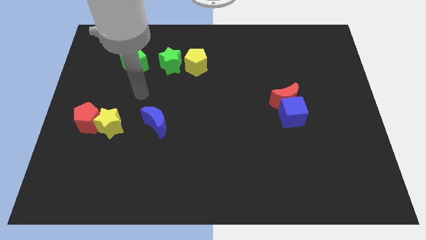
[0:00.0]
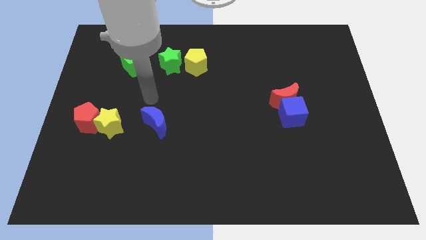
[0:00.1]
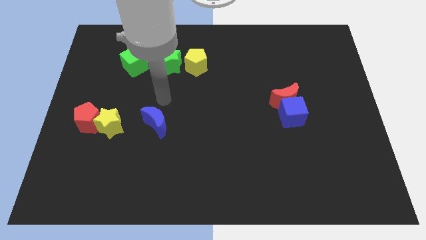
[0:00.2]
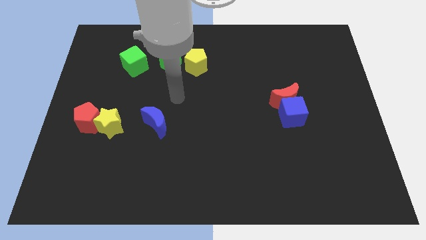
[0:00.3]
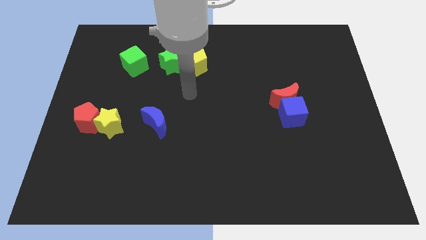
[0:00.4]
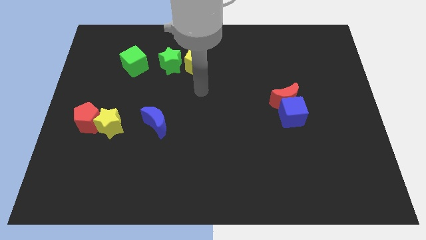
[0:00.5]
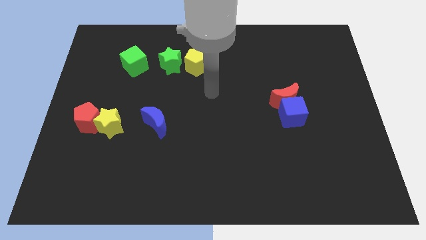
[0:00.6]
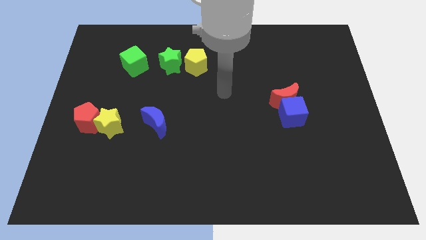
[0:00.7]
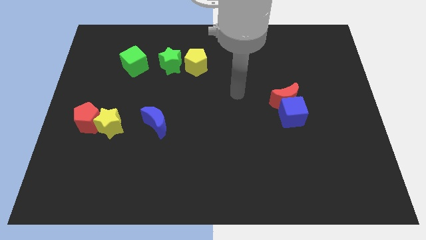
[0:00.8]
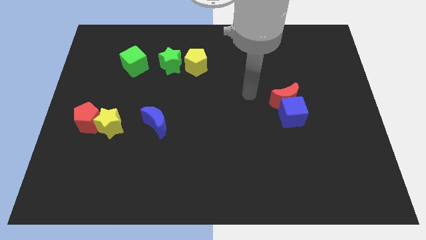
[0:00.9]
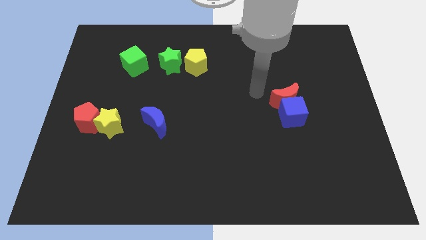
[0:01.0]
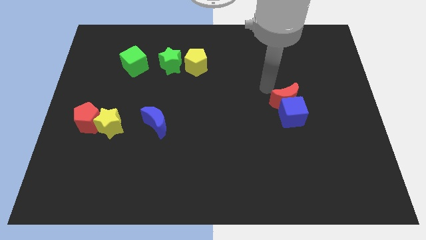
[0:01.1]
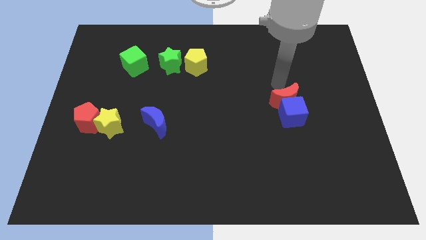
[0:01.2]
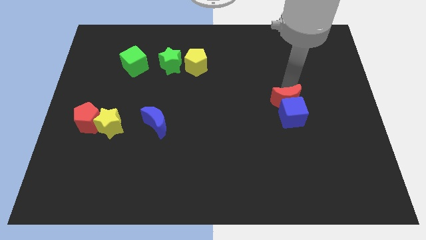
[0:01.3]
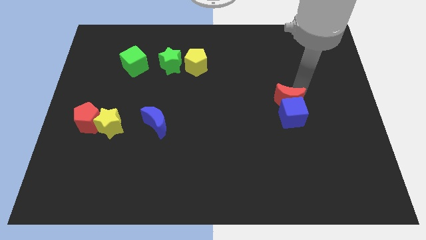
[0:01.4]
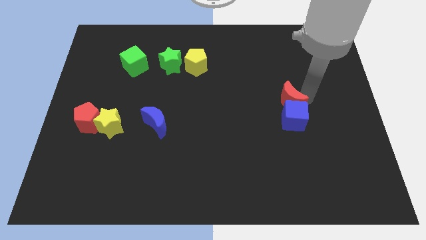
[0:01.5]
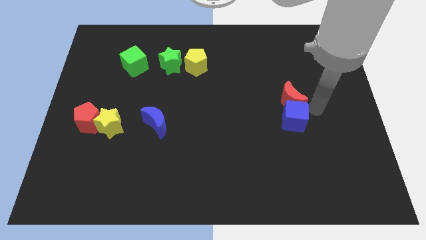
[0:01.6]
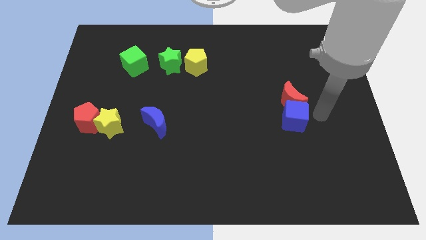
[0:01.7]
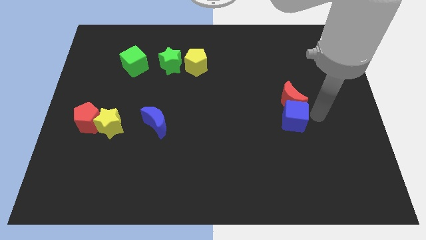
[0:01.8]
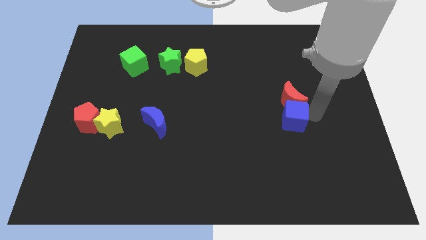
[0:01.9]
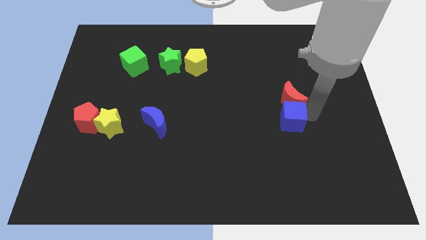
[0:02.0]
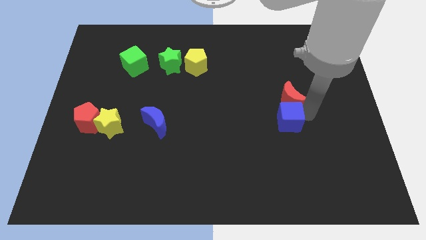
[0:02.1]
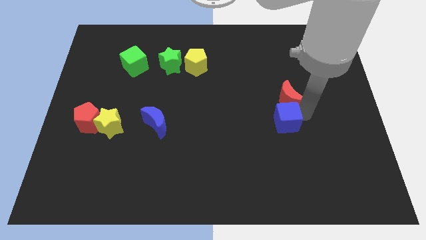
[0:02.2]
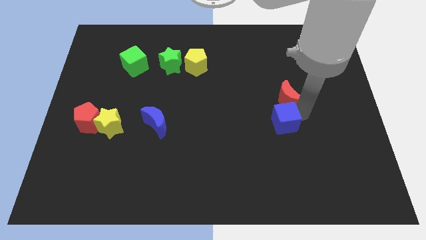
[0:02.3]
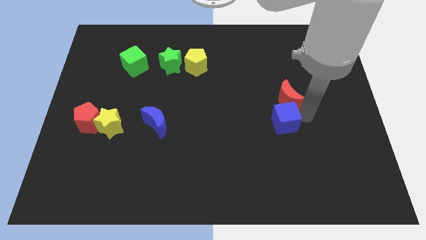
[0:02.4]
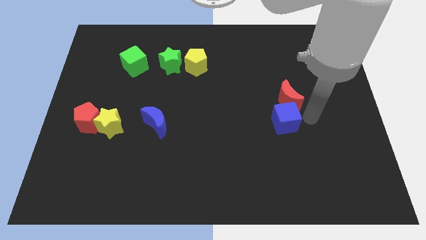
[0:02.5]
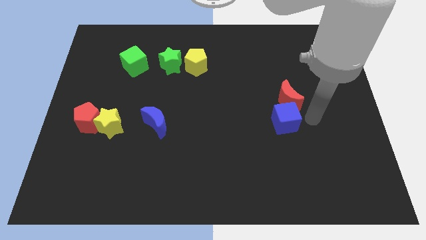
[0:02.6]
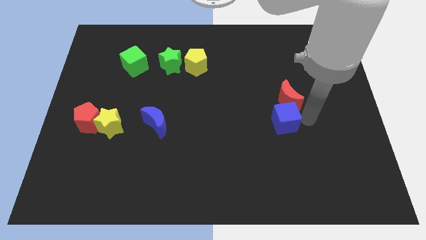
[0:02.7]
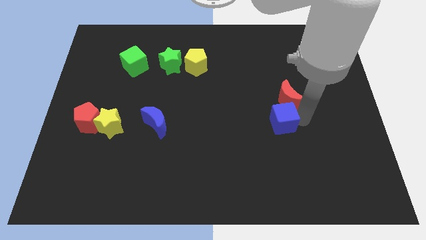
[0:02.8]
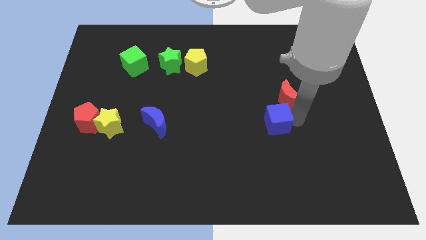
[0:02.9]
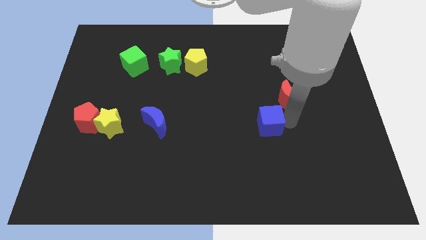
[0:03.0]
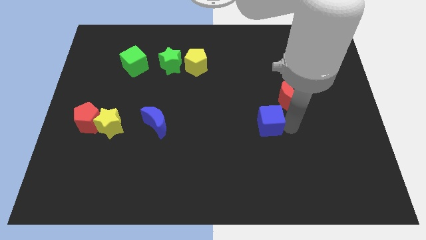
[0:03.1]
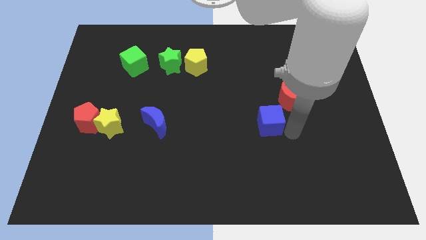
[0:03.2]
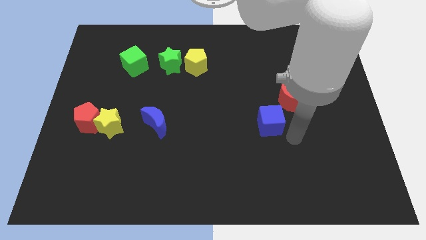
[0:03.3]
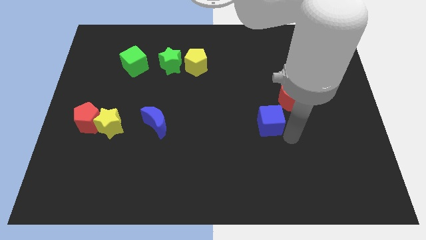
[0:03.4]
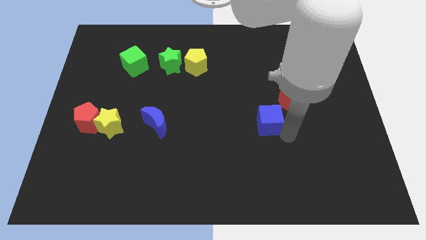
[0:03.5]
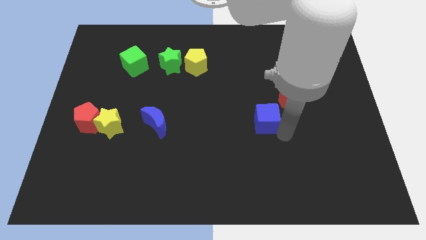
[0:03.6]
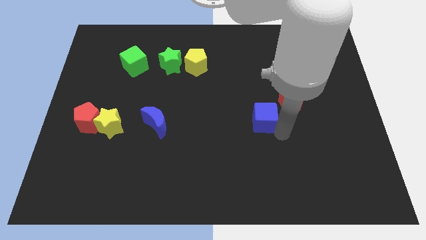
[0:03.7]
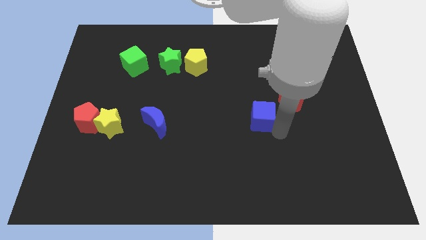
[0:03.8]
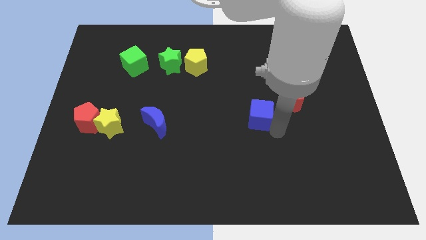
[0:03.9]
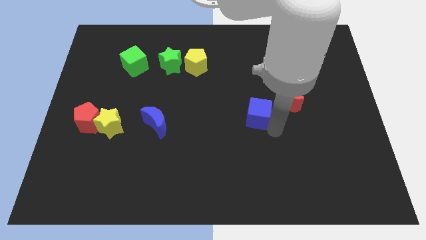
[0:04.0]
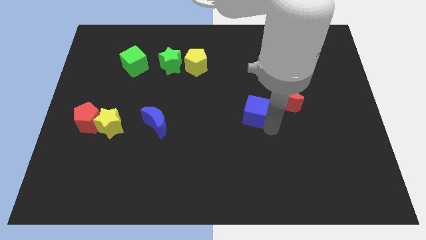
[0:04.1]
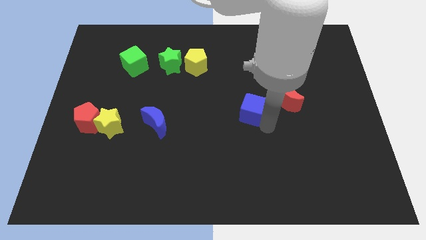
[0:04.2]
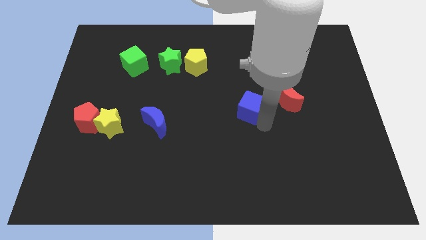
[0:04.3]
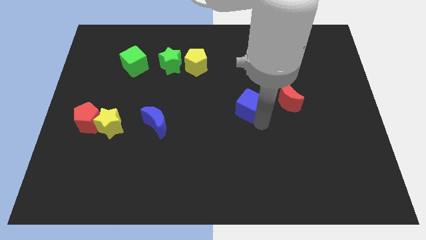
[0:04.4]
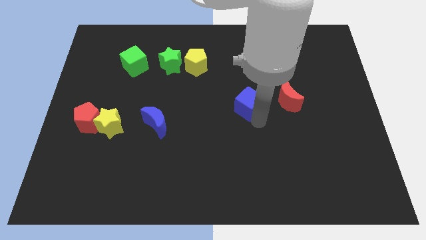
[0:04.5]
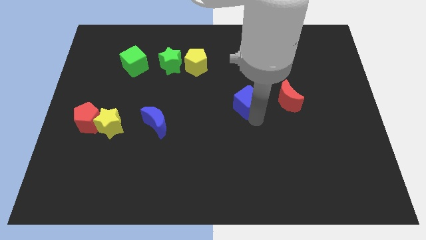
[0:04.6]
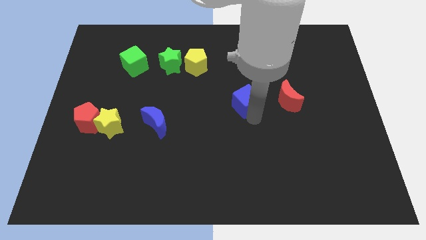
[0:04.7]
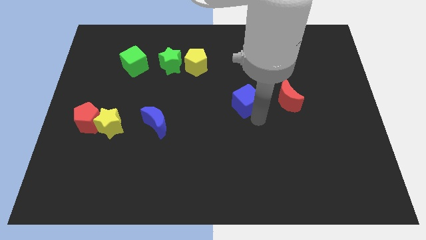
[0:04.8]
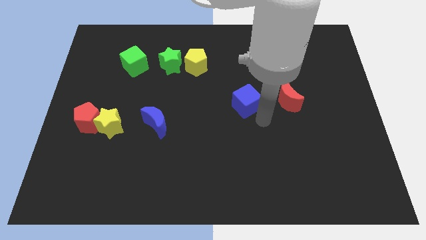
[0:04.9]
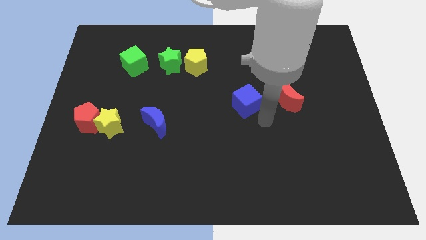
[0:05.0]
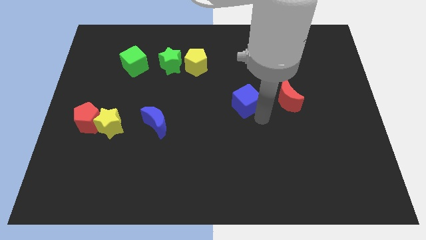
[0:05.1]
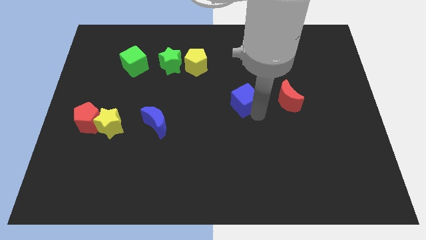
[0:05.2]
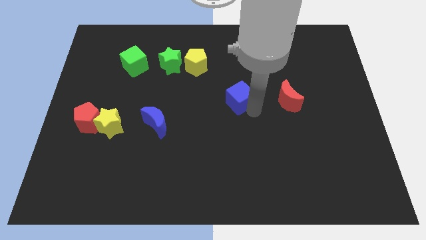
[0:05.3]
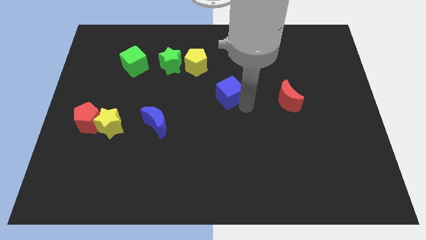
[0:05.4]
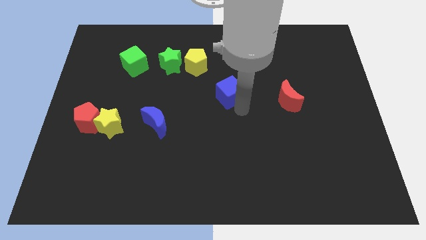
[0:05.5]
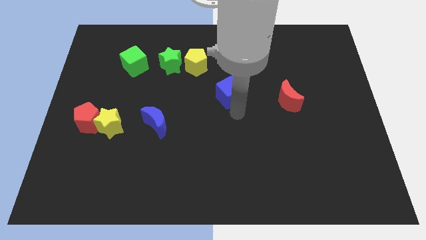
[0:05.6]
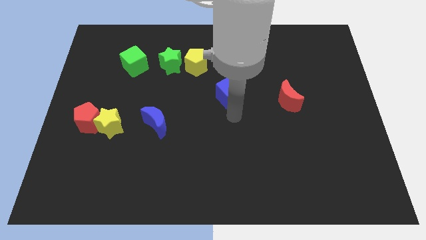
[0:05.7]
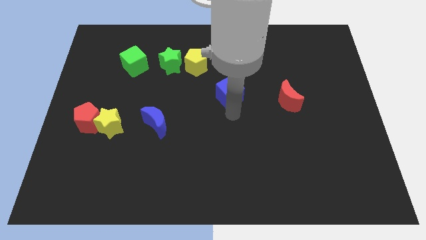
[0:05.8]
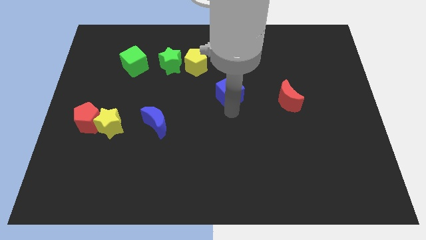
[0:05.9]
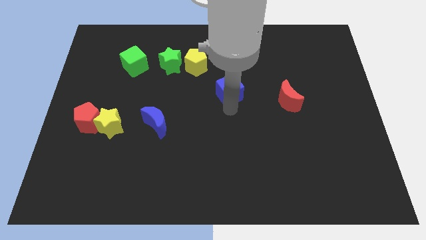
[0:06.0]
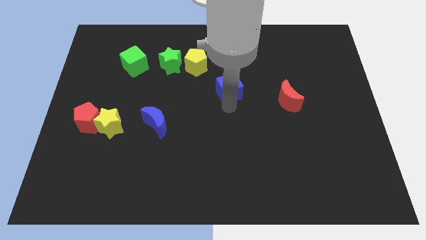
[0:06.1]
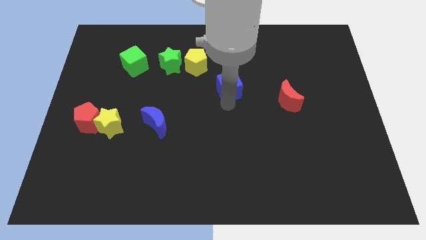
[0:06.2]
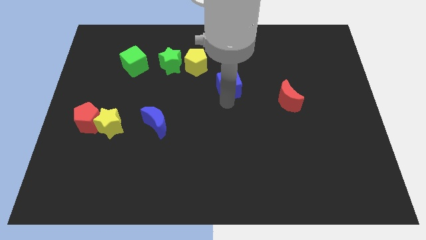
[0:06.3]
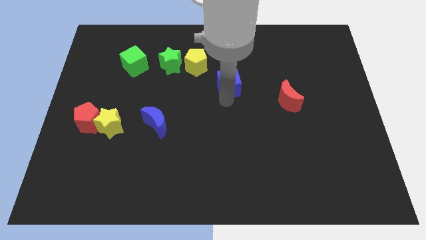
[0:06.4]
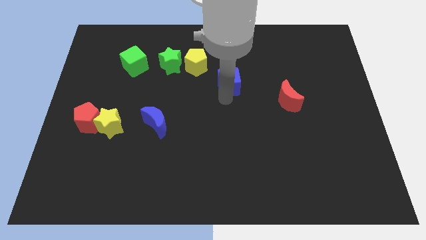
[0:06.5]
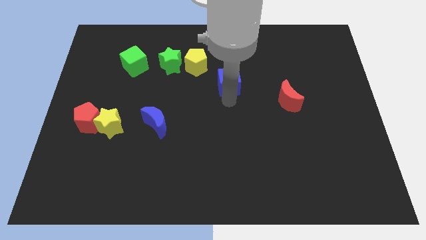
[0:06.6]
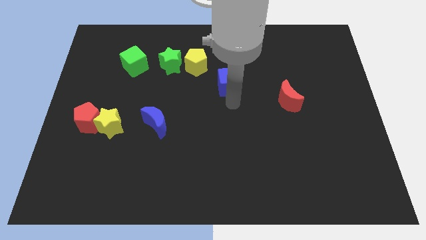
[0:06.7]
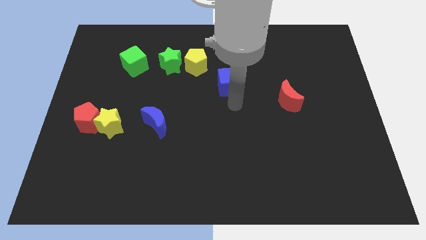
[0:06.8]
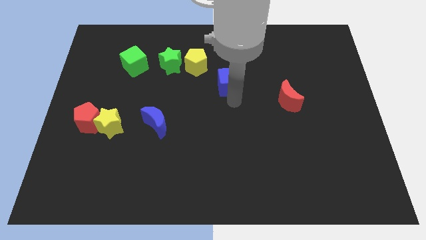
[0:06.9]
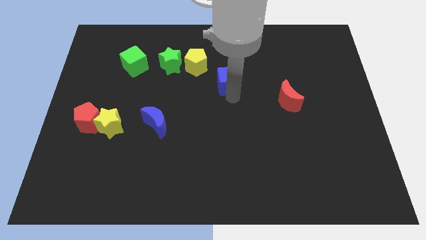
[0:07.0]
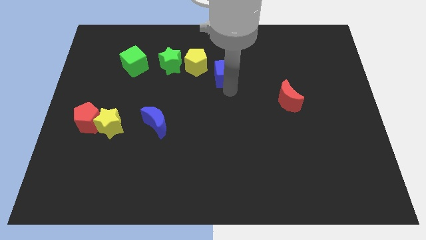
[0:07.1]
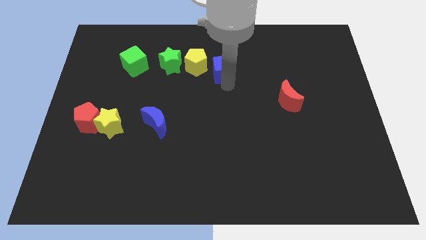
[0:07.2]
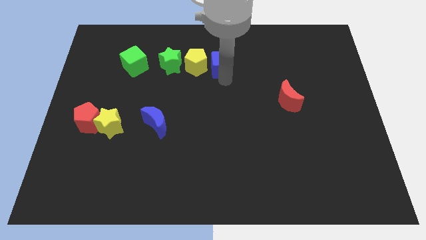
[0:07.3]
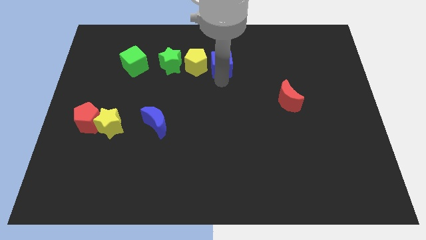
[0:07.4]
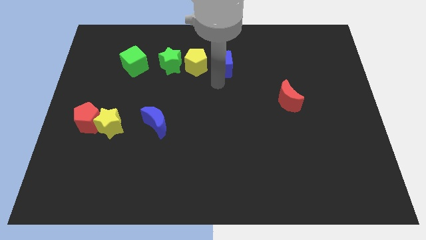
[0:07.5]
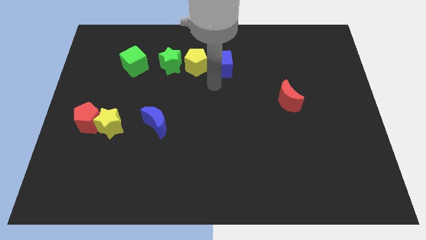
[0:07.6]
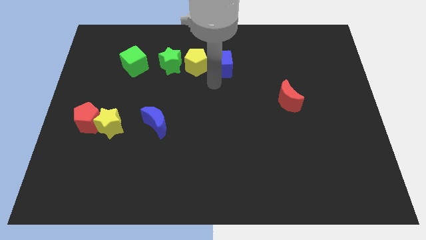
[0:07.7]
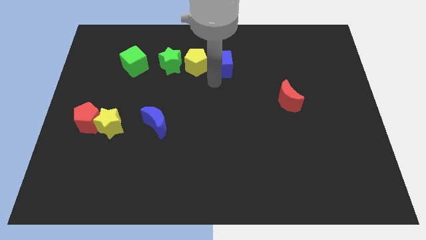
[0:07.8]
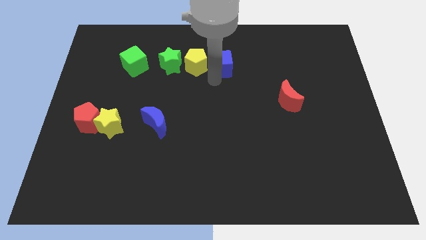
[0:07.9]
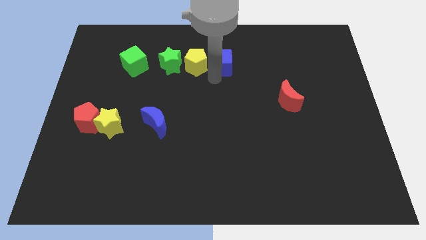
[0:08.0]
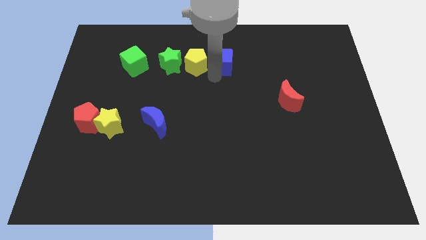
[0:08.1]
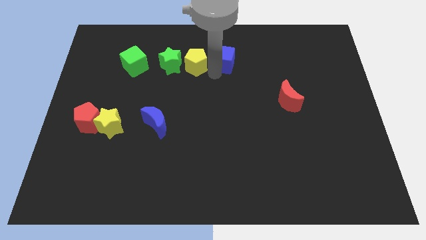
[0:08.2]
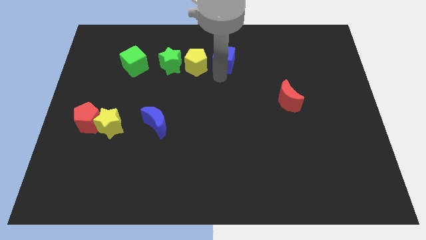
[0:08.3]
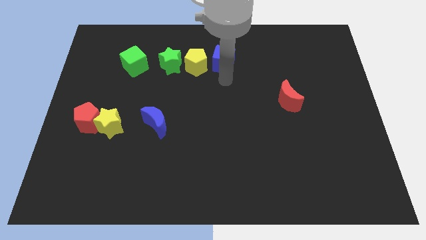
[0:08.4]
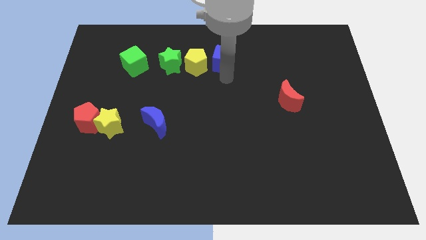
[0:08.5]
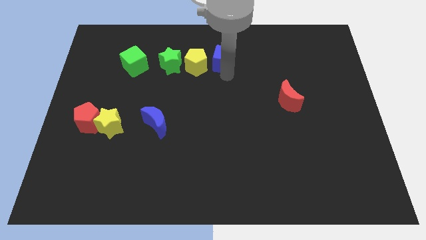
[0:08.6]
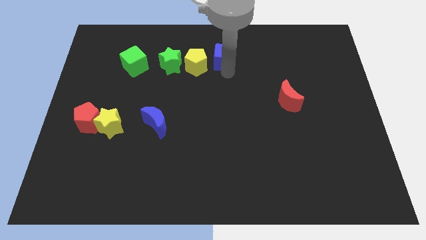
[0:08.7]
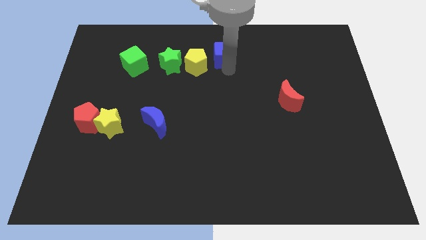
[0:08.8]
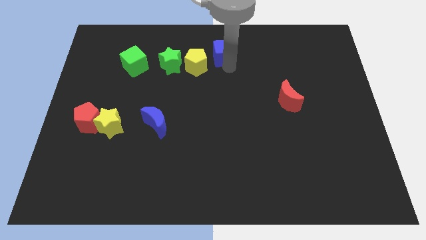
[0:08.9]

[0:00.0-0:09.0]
slide the blue cube to the top side
